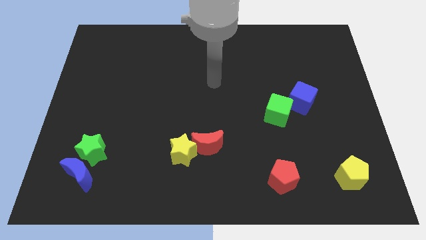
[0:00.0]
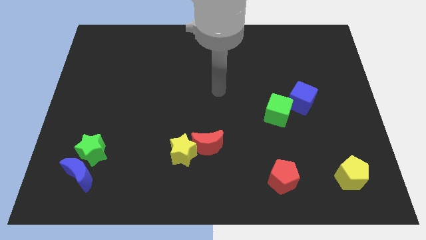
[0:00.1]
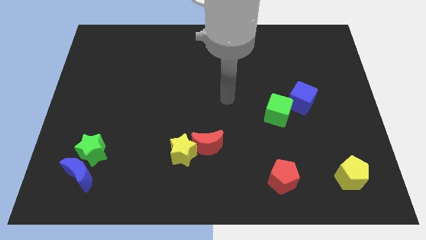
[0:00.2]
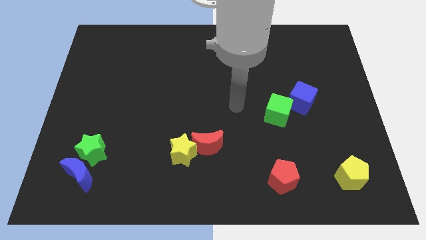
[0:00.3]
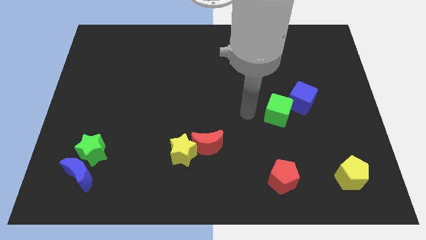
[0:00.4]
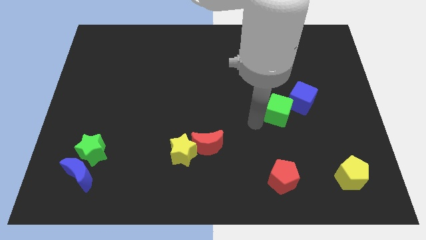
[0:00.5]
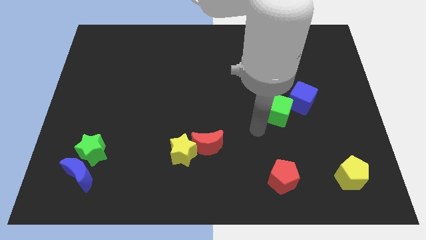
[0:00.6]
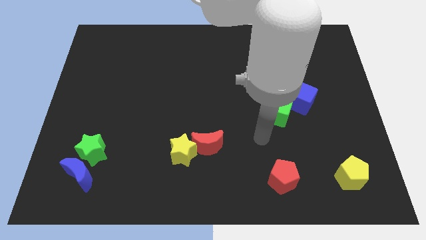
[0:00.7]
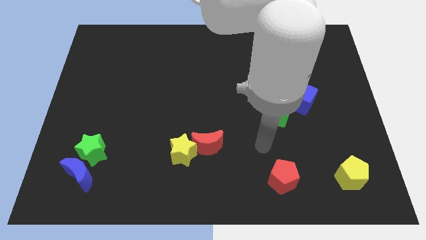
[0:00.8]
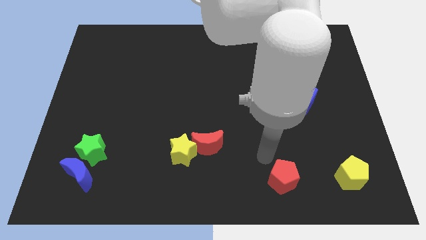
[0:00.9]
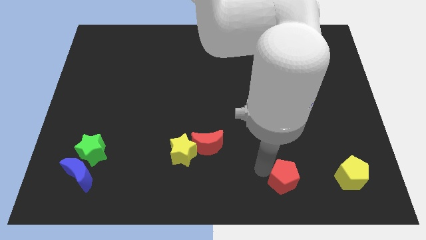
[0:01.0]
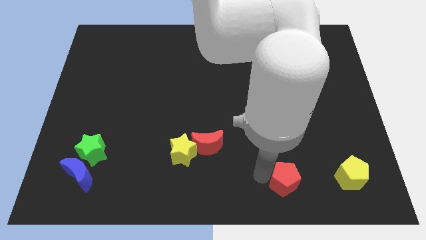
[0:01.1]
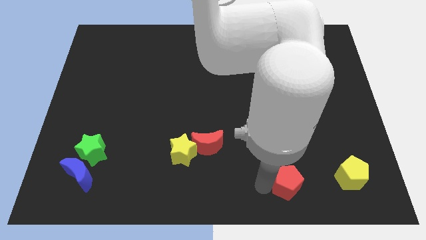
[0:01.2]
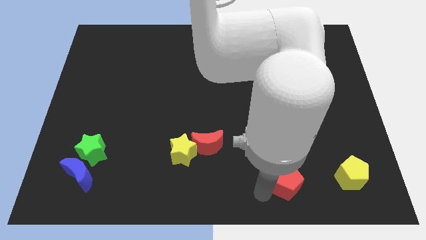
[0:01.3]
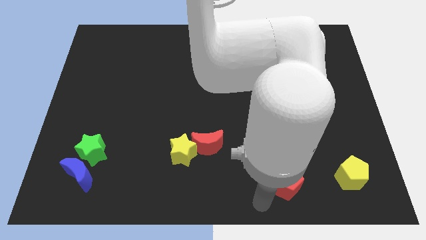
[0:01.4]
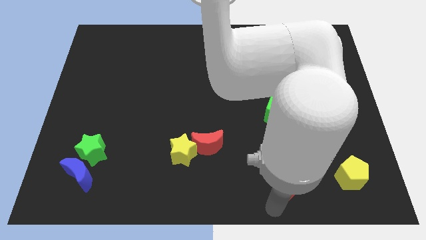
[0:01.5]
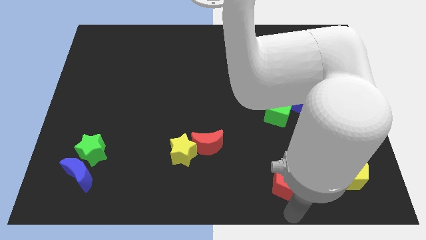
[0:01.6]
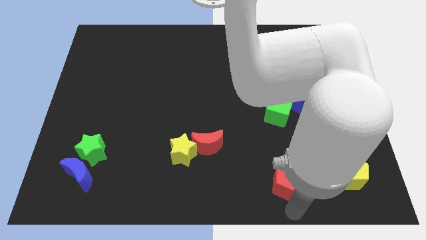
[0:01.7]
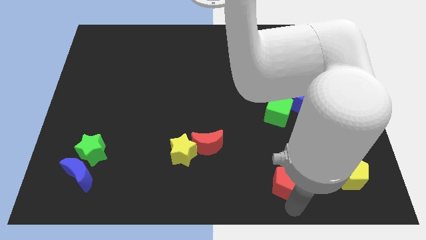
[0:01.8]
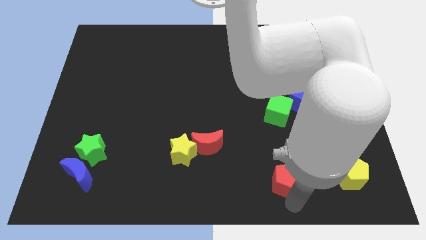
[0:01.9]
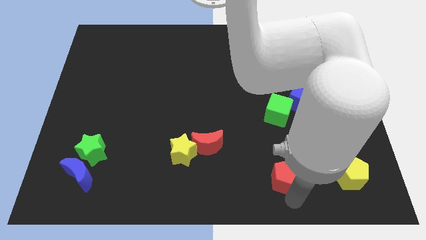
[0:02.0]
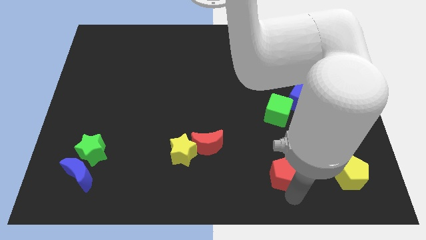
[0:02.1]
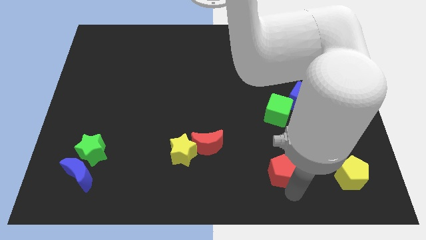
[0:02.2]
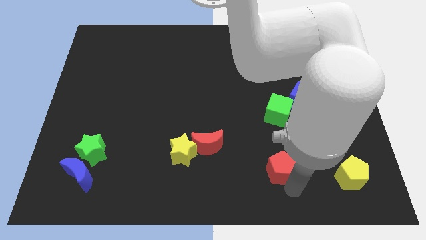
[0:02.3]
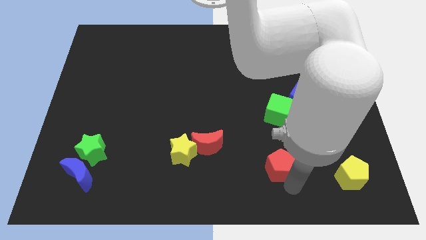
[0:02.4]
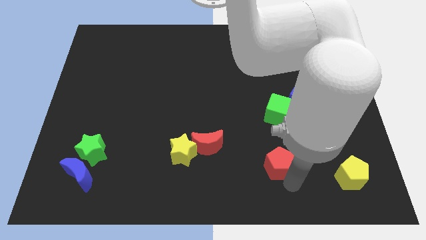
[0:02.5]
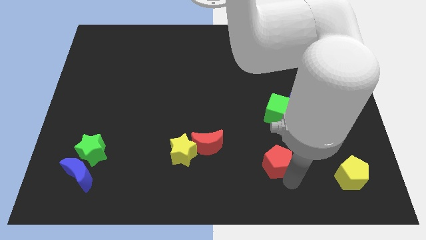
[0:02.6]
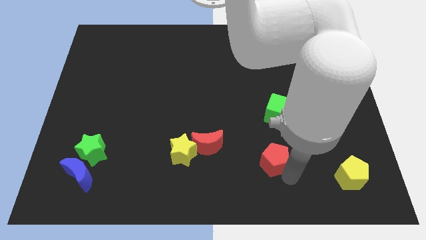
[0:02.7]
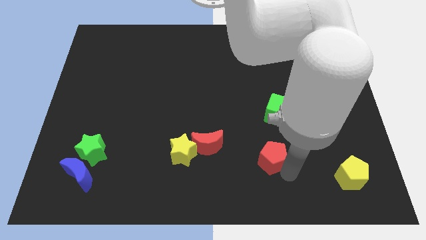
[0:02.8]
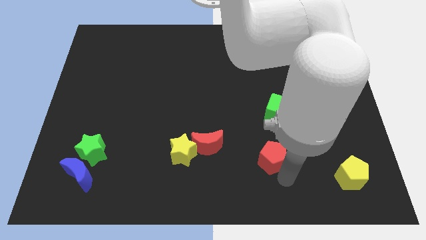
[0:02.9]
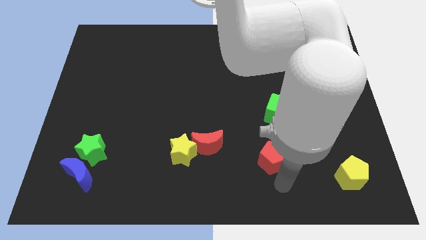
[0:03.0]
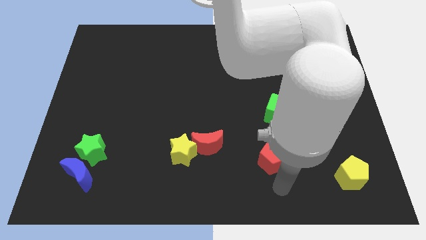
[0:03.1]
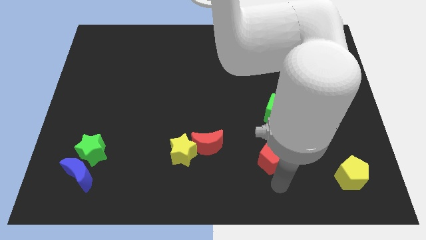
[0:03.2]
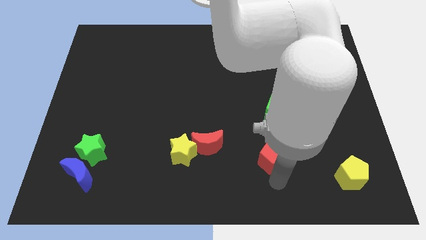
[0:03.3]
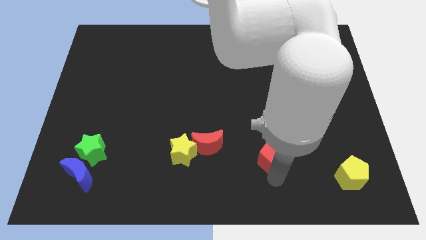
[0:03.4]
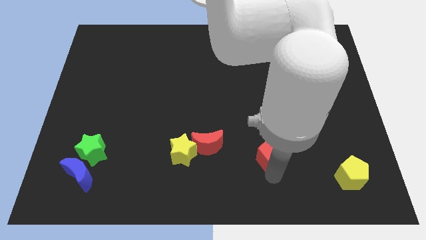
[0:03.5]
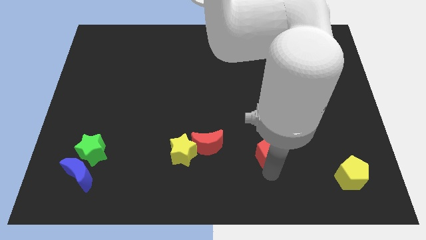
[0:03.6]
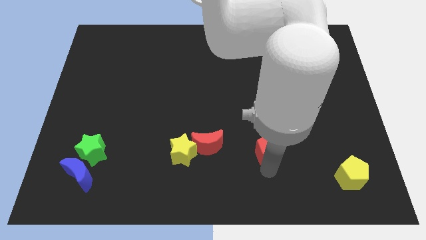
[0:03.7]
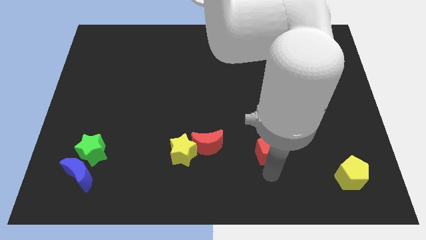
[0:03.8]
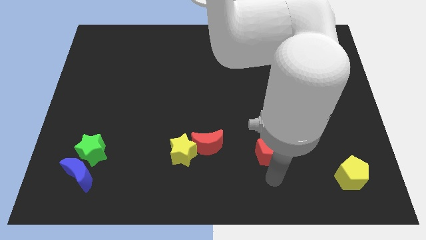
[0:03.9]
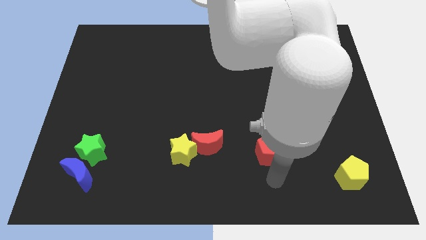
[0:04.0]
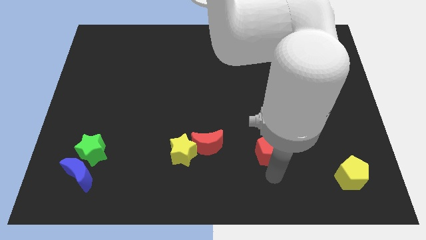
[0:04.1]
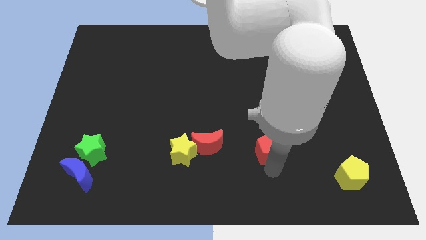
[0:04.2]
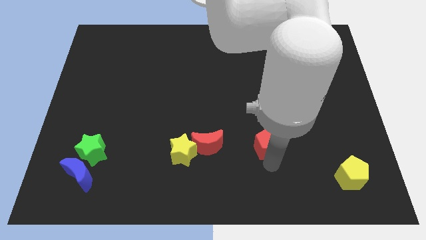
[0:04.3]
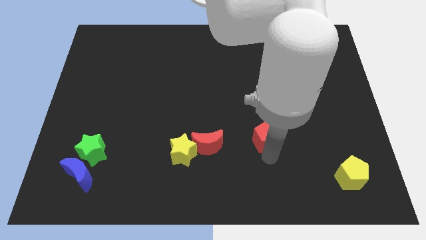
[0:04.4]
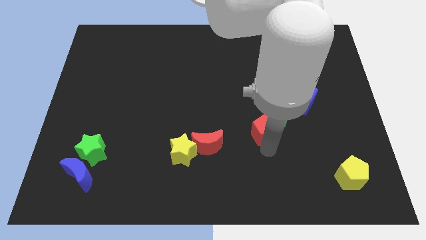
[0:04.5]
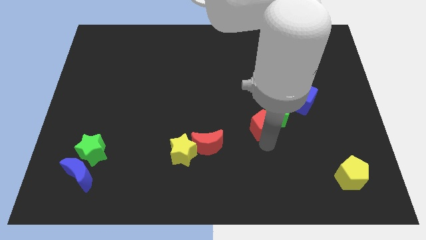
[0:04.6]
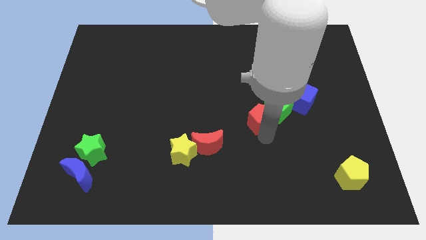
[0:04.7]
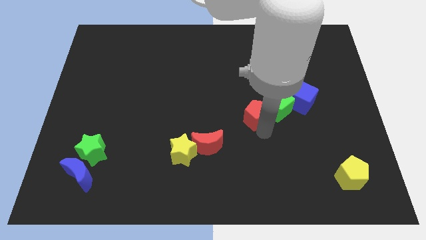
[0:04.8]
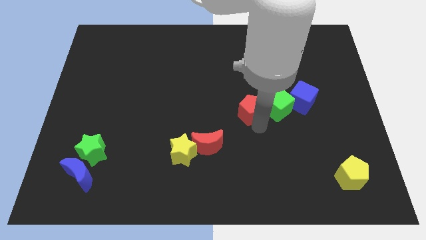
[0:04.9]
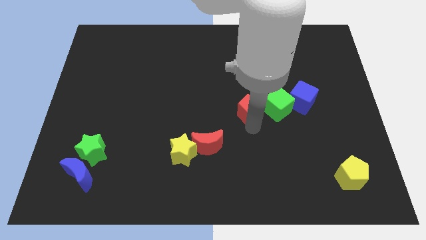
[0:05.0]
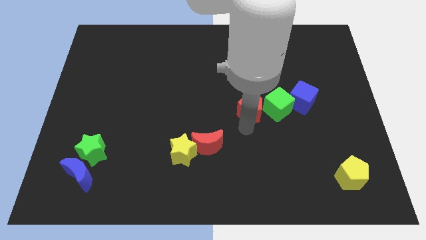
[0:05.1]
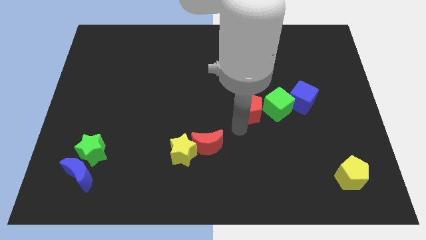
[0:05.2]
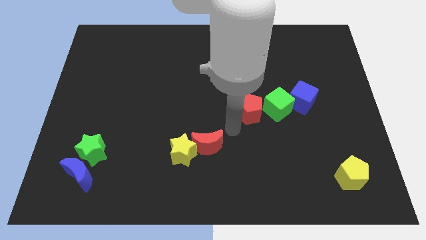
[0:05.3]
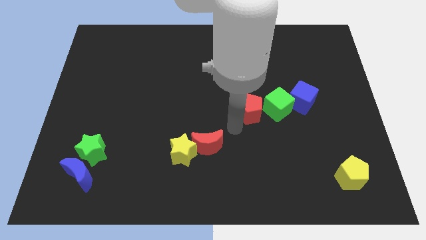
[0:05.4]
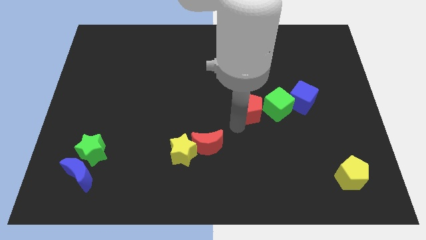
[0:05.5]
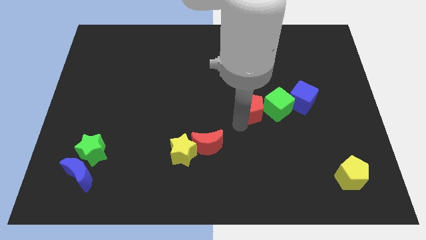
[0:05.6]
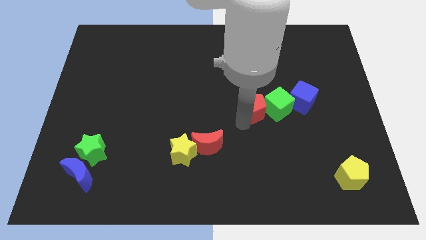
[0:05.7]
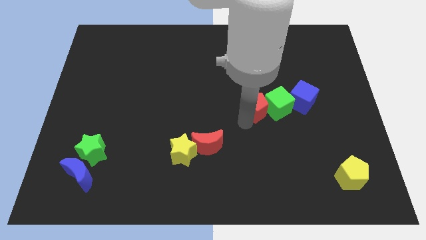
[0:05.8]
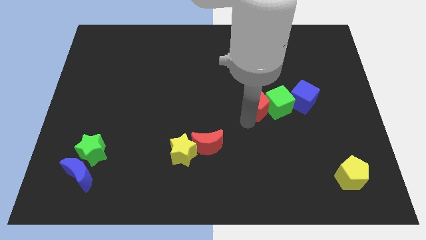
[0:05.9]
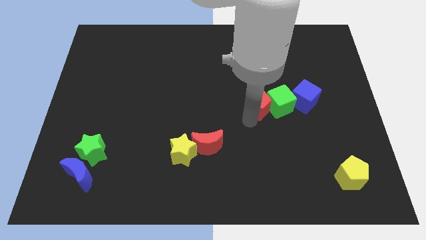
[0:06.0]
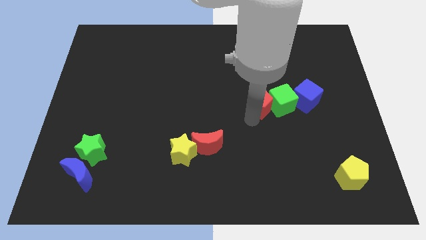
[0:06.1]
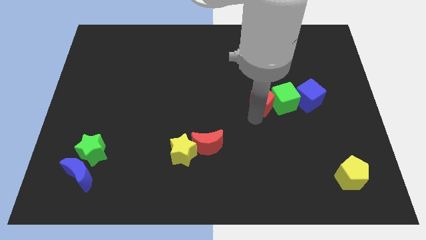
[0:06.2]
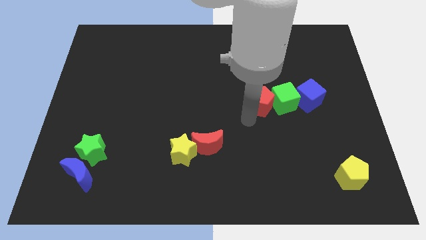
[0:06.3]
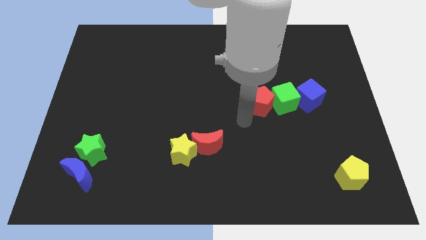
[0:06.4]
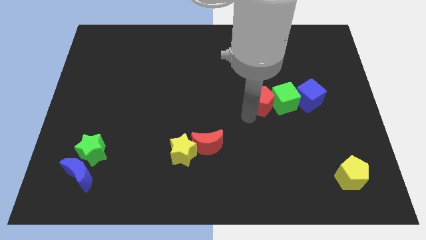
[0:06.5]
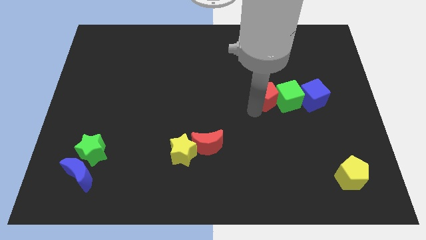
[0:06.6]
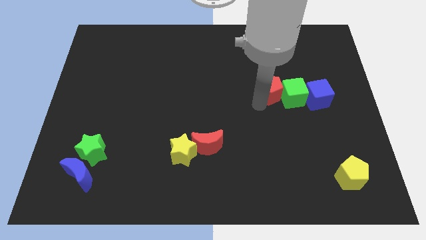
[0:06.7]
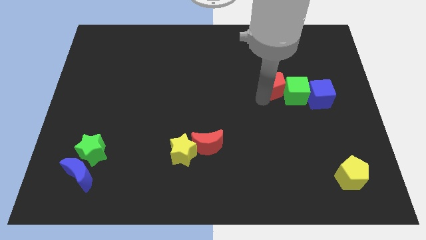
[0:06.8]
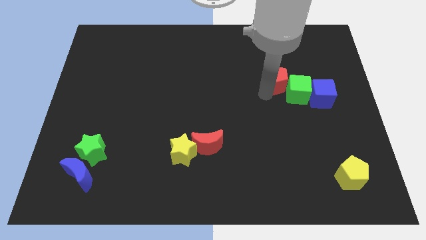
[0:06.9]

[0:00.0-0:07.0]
slide the red pentagon to the top left side of the blue cube
